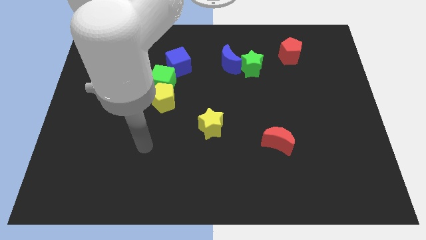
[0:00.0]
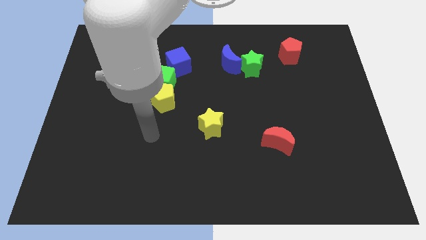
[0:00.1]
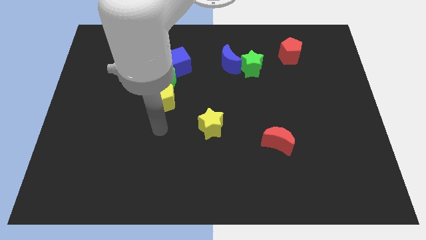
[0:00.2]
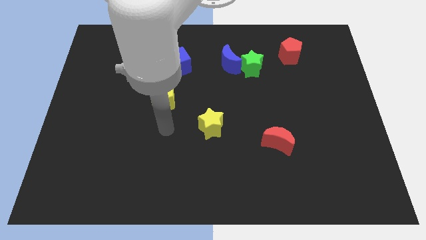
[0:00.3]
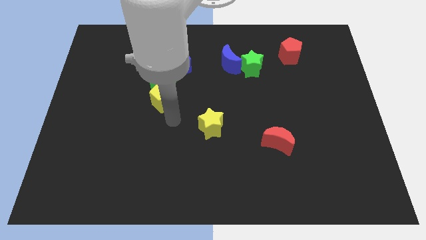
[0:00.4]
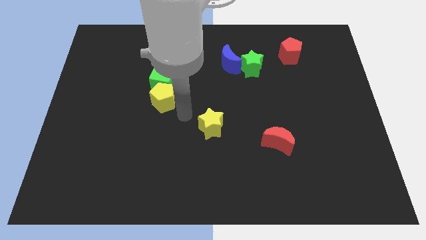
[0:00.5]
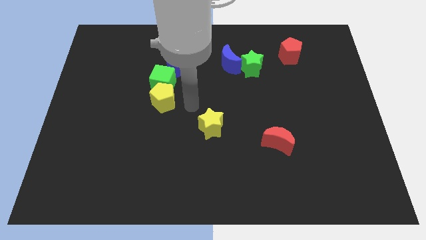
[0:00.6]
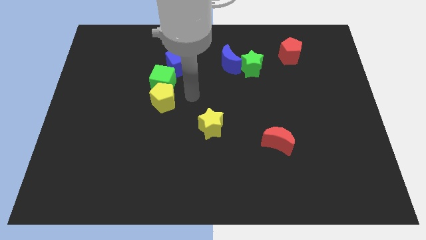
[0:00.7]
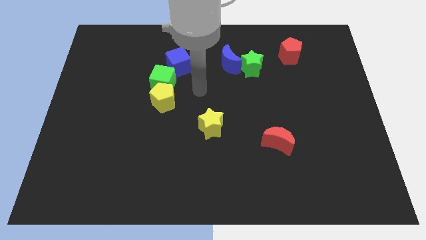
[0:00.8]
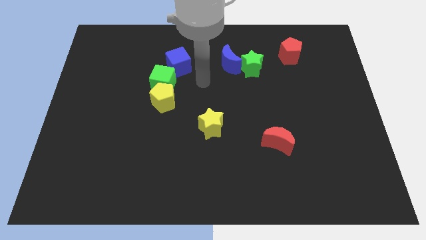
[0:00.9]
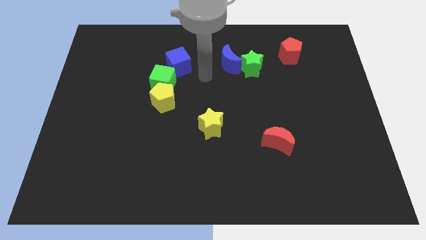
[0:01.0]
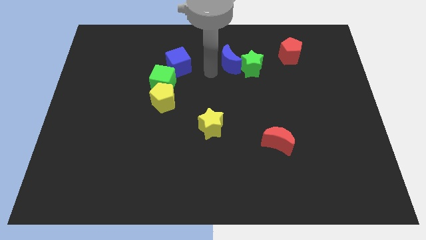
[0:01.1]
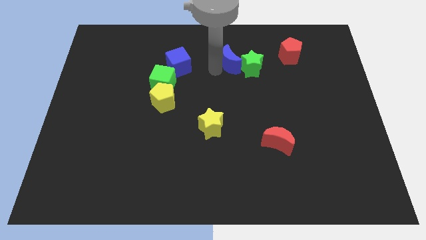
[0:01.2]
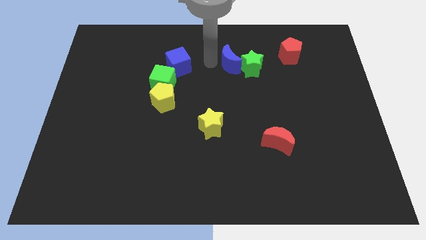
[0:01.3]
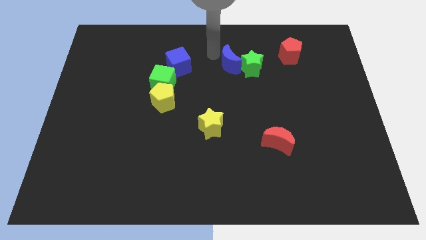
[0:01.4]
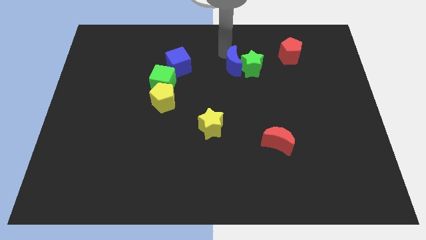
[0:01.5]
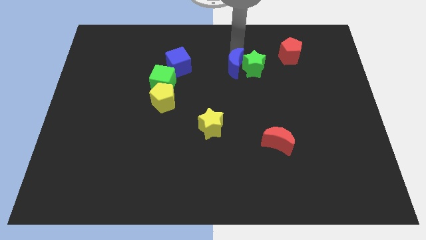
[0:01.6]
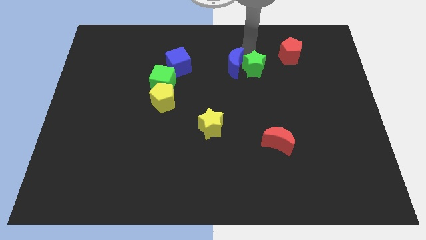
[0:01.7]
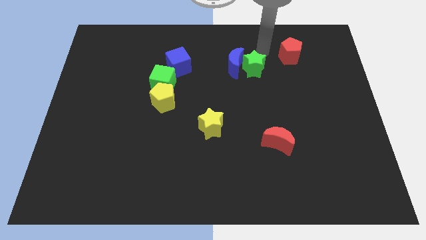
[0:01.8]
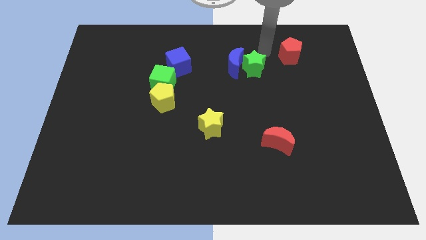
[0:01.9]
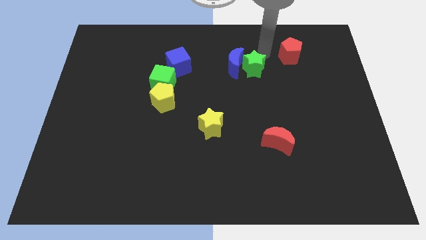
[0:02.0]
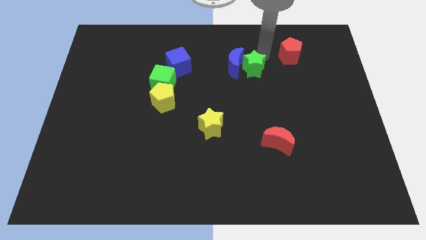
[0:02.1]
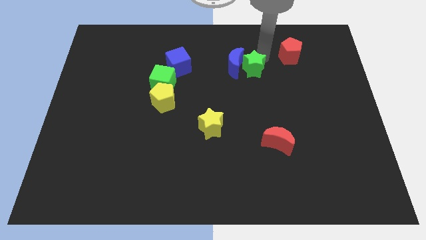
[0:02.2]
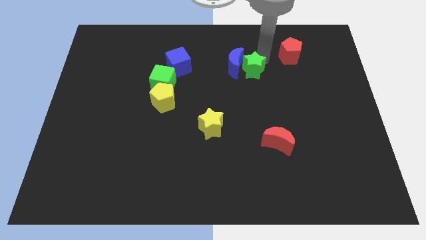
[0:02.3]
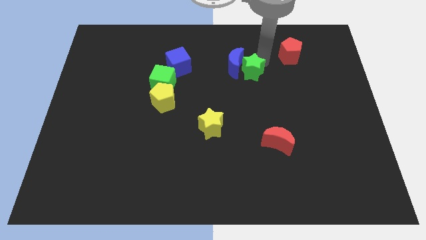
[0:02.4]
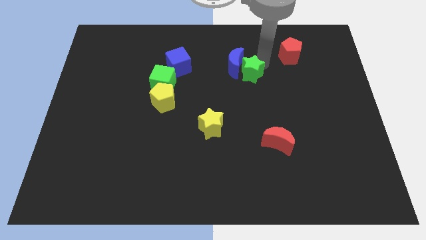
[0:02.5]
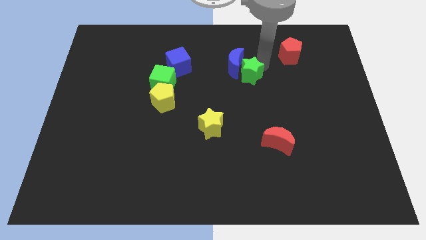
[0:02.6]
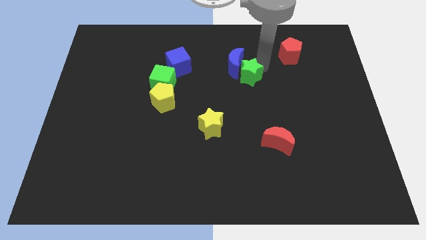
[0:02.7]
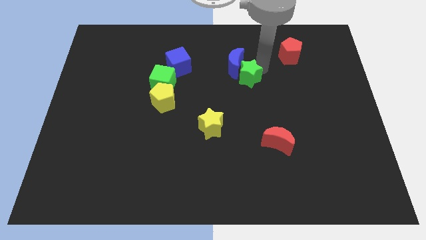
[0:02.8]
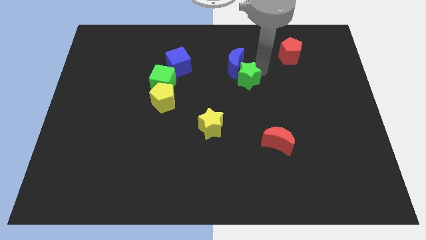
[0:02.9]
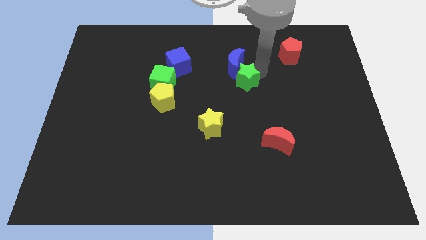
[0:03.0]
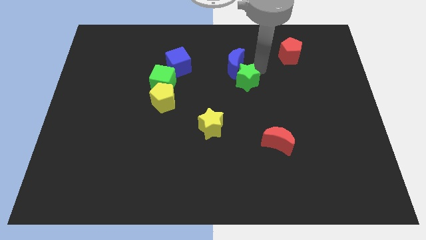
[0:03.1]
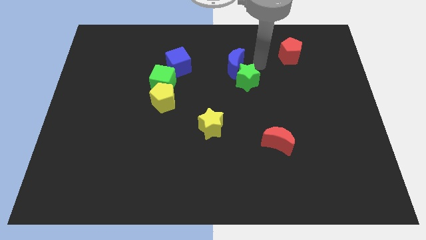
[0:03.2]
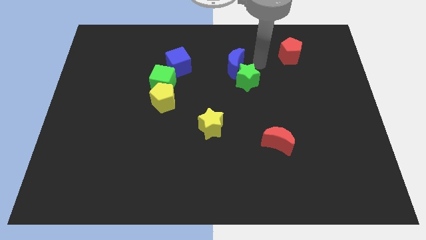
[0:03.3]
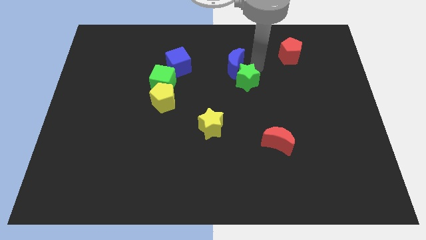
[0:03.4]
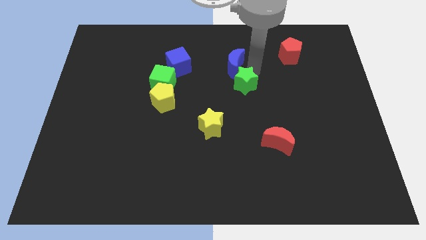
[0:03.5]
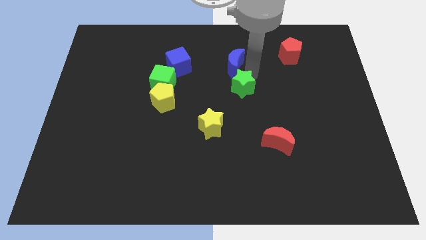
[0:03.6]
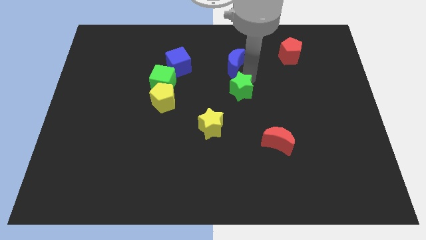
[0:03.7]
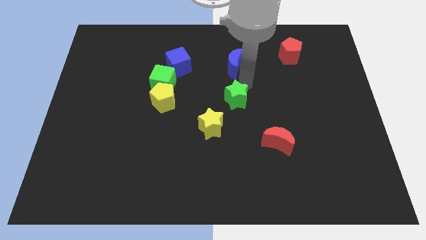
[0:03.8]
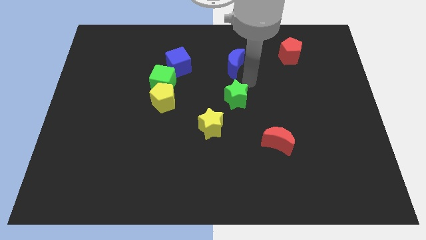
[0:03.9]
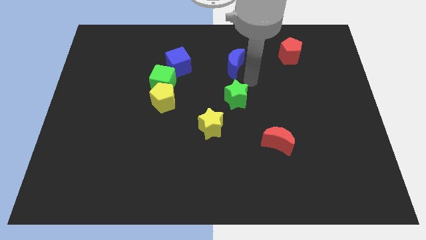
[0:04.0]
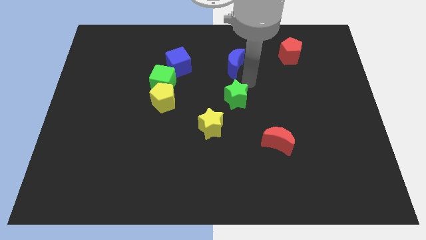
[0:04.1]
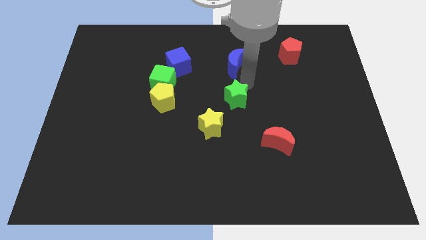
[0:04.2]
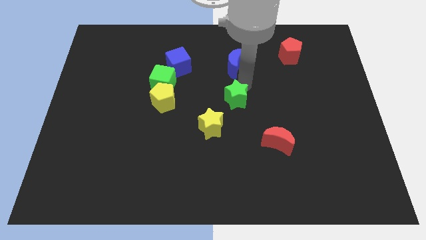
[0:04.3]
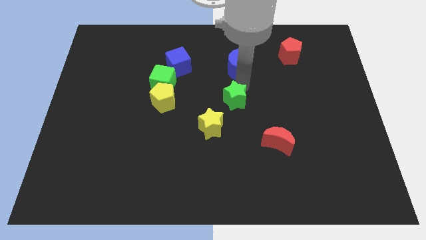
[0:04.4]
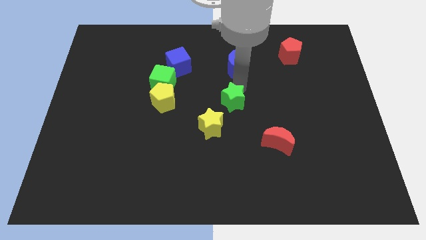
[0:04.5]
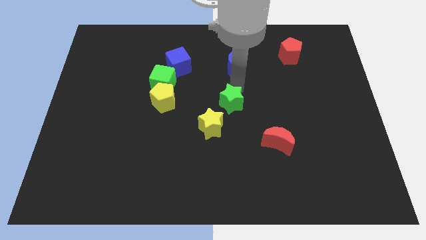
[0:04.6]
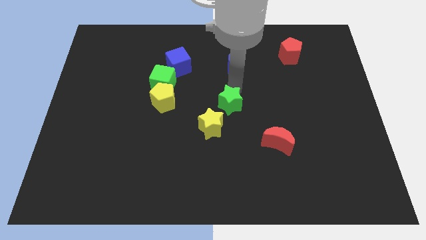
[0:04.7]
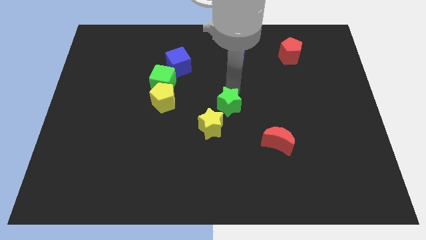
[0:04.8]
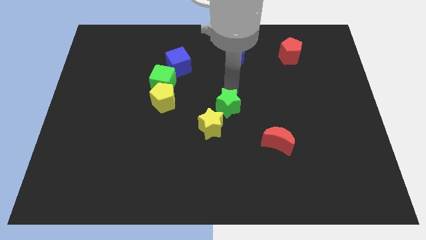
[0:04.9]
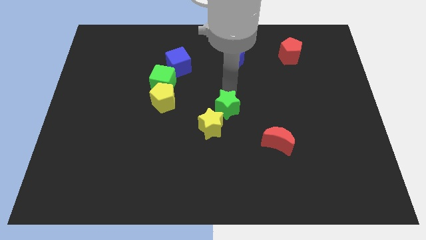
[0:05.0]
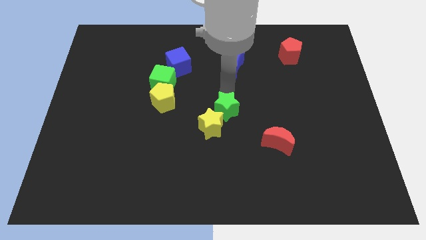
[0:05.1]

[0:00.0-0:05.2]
move the green star next to the yellow star

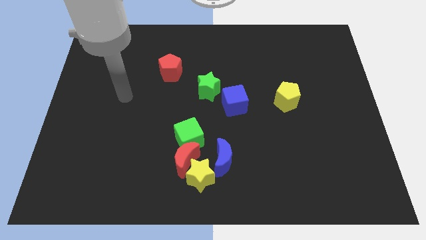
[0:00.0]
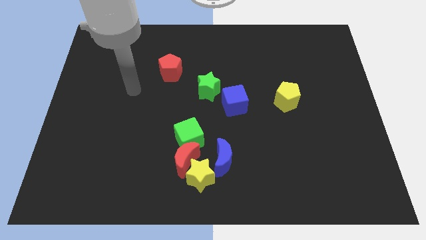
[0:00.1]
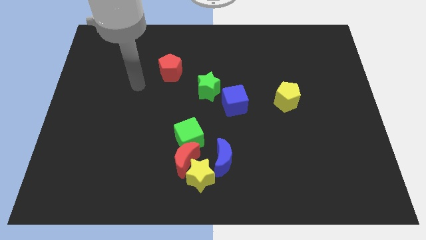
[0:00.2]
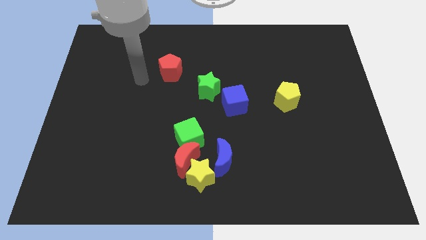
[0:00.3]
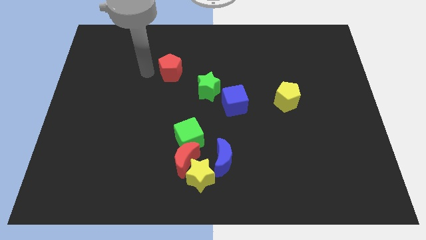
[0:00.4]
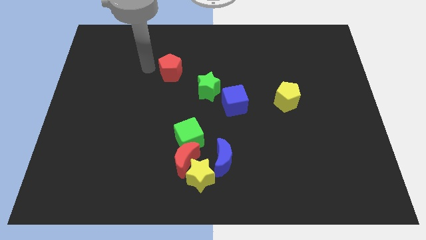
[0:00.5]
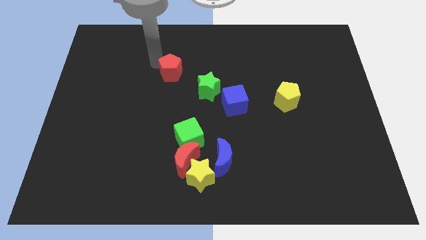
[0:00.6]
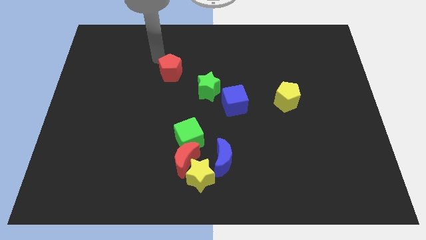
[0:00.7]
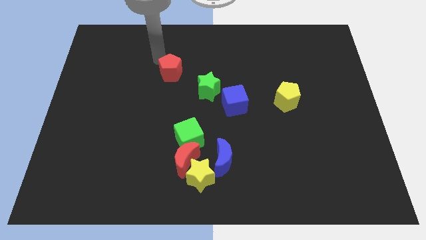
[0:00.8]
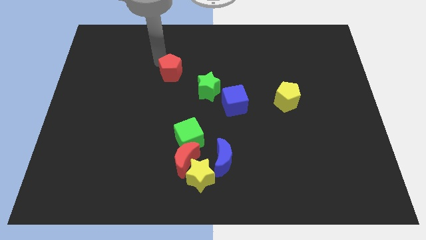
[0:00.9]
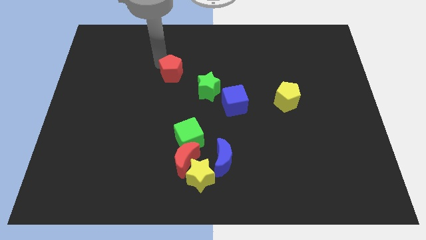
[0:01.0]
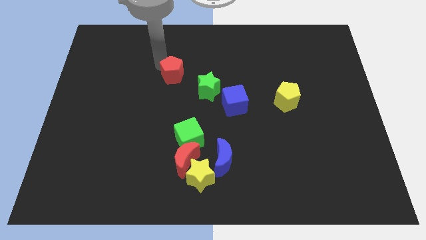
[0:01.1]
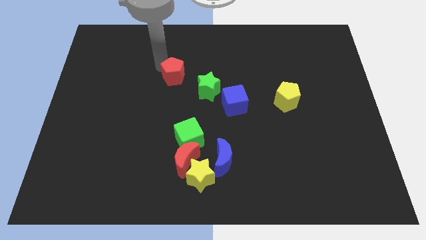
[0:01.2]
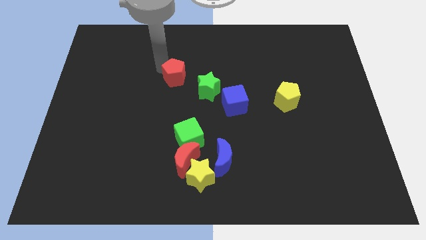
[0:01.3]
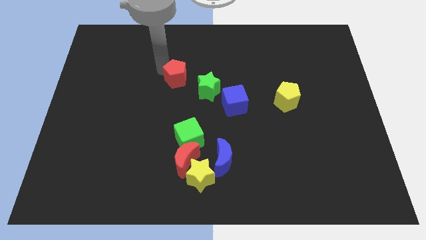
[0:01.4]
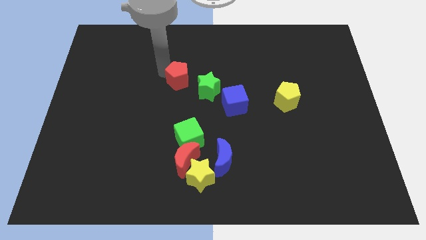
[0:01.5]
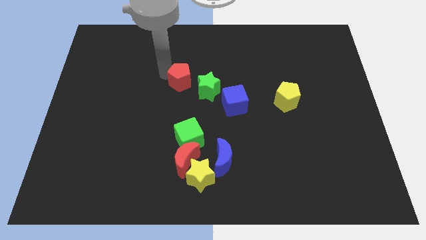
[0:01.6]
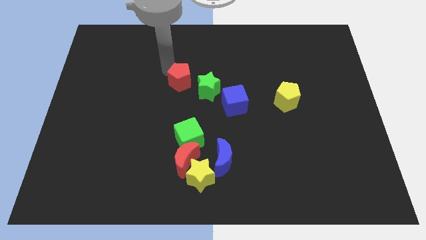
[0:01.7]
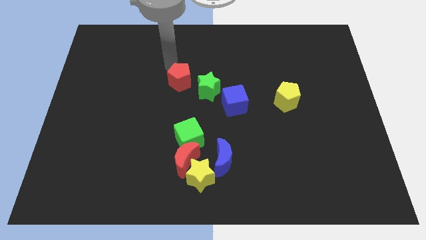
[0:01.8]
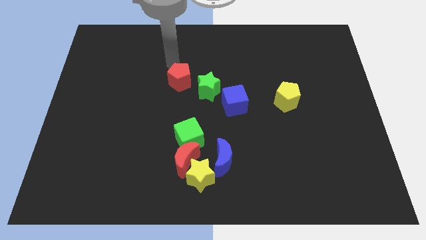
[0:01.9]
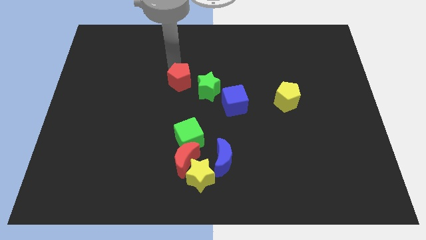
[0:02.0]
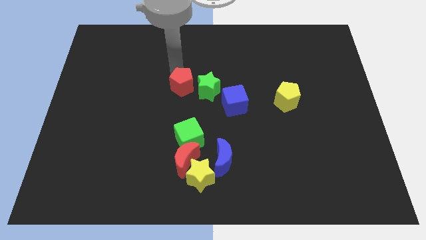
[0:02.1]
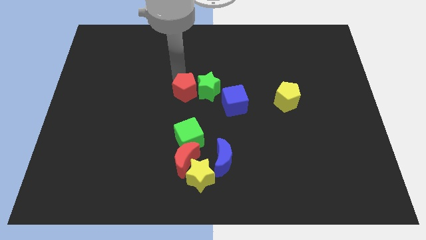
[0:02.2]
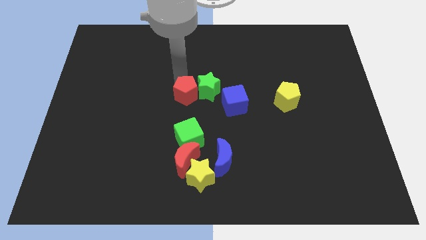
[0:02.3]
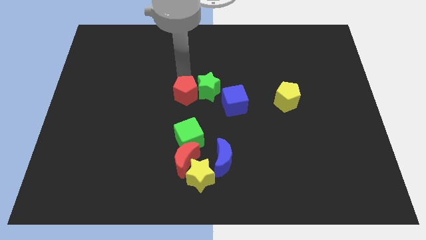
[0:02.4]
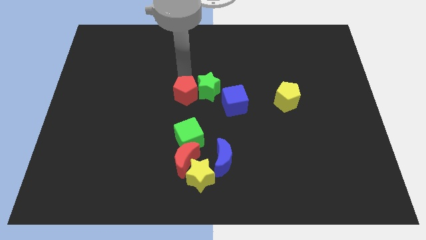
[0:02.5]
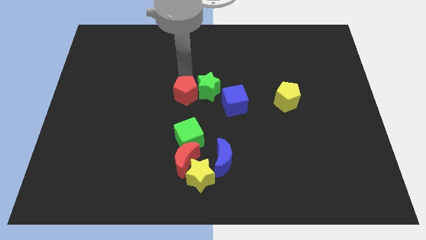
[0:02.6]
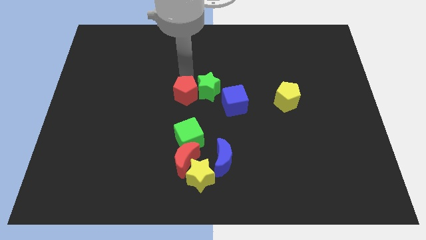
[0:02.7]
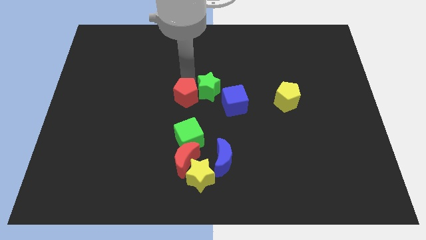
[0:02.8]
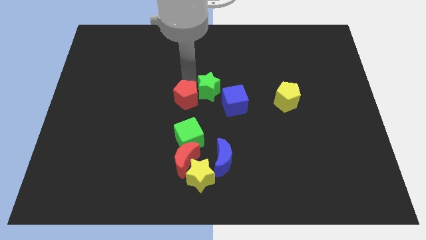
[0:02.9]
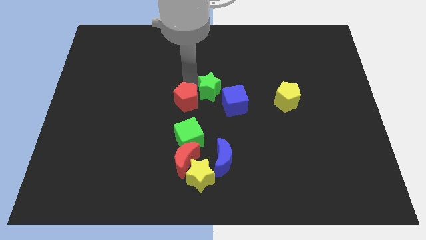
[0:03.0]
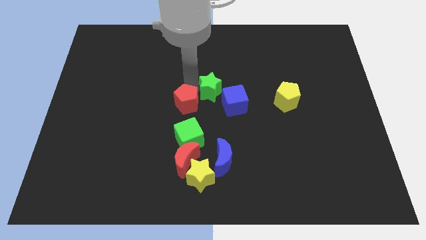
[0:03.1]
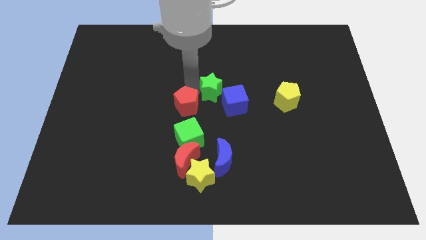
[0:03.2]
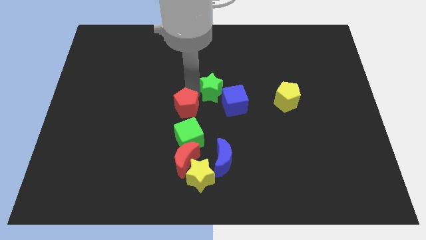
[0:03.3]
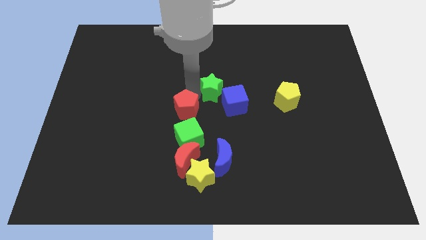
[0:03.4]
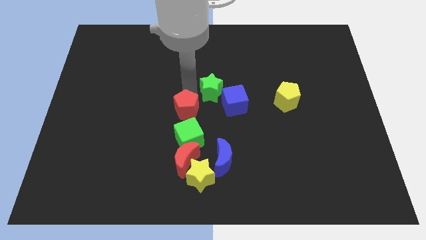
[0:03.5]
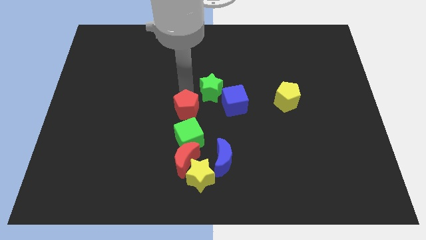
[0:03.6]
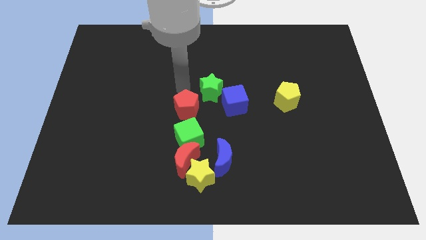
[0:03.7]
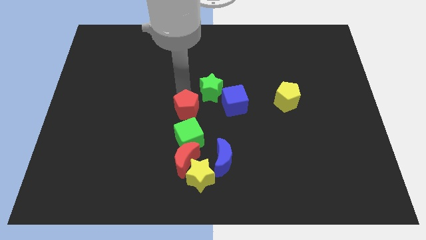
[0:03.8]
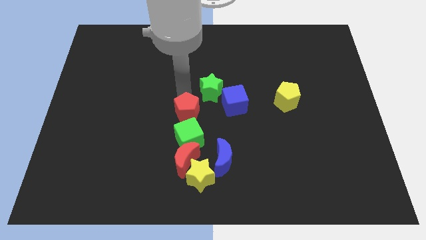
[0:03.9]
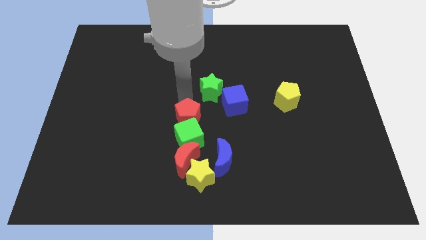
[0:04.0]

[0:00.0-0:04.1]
move the red pentagon to the green cube
